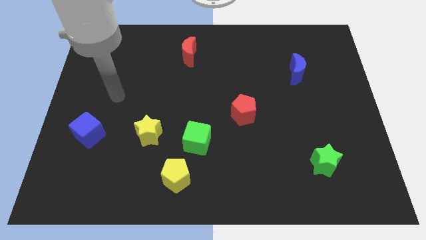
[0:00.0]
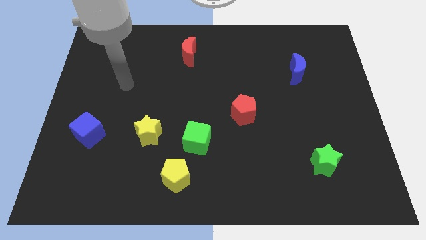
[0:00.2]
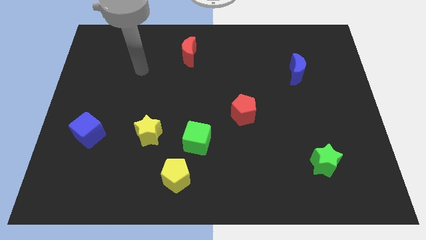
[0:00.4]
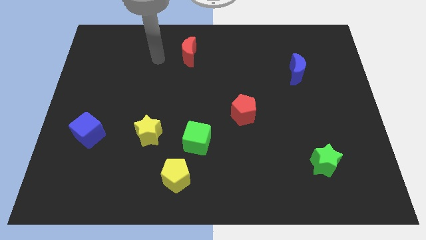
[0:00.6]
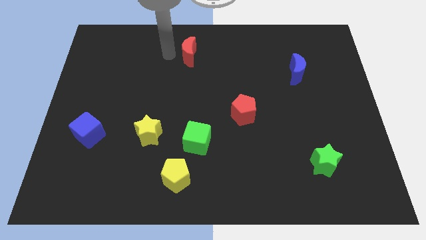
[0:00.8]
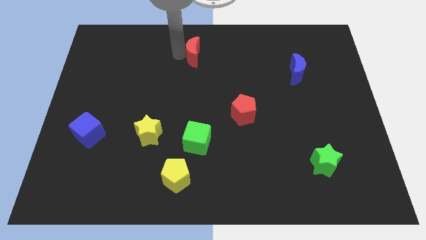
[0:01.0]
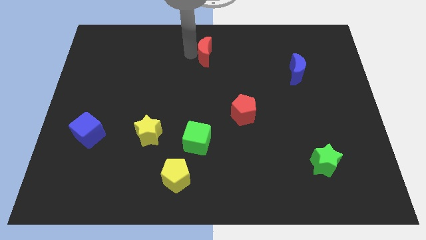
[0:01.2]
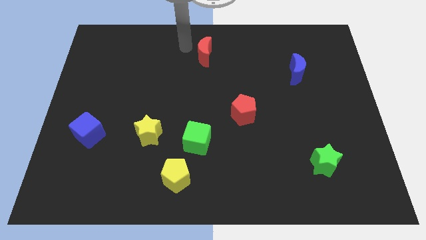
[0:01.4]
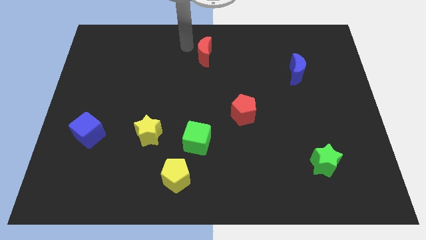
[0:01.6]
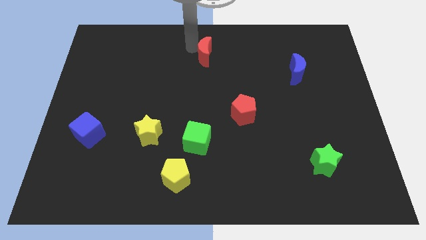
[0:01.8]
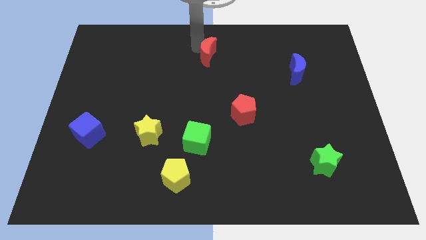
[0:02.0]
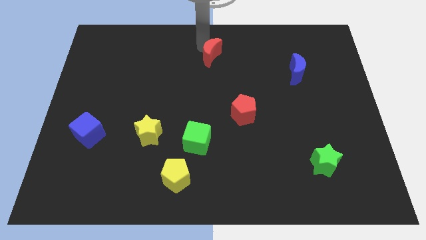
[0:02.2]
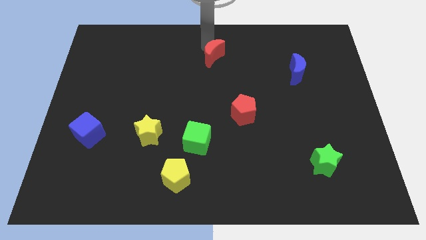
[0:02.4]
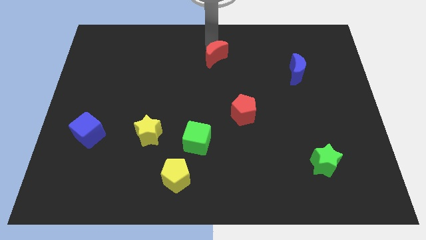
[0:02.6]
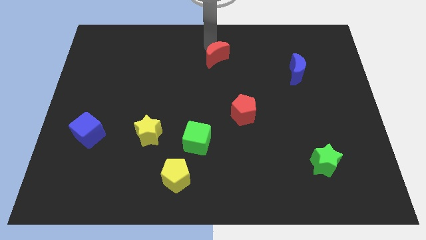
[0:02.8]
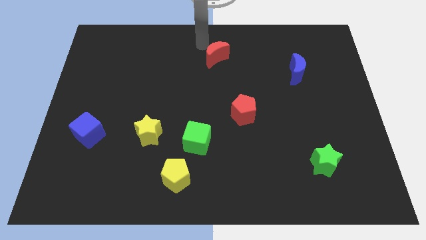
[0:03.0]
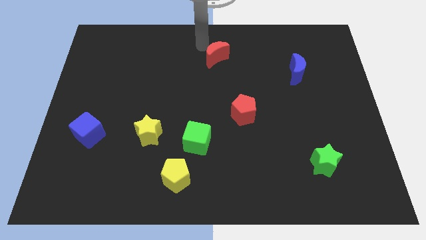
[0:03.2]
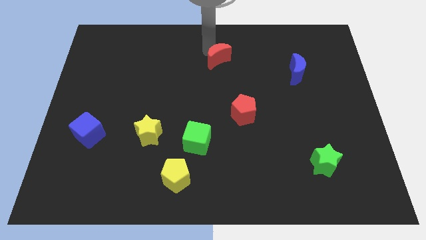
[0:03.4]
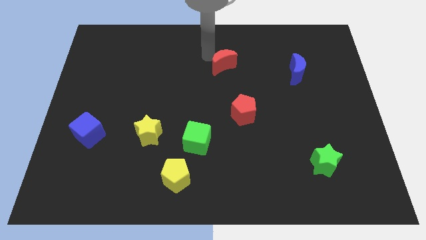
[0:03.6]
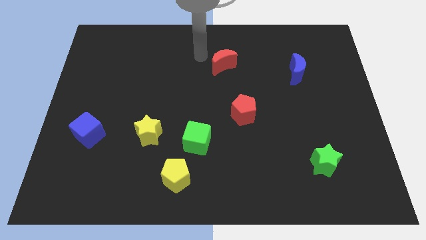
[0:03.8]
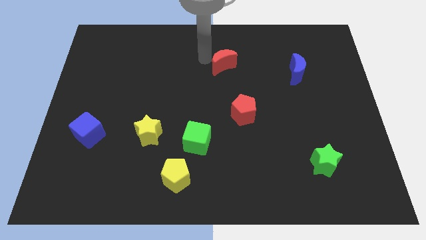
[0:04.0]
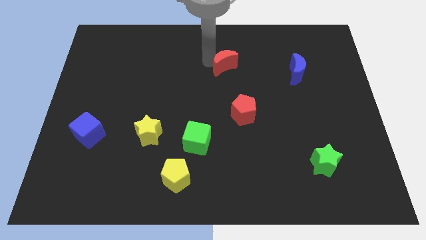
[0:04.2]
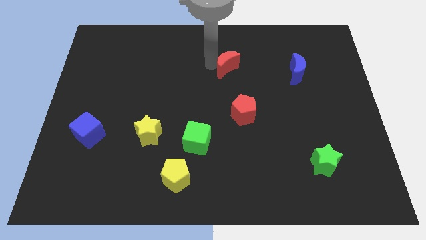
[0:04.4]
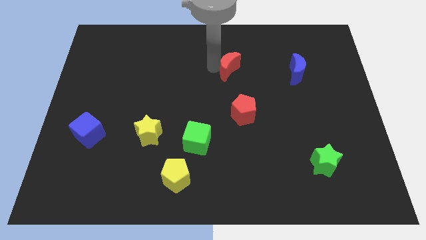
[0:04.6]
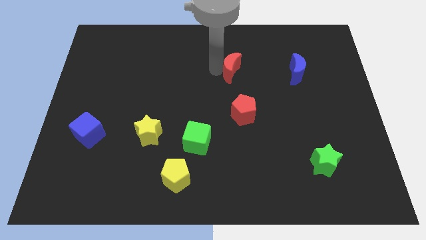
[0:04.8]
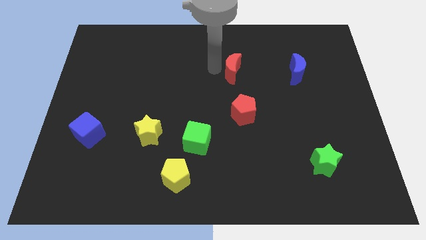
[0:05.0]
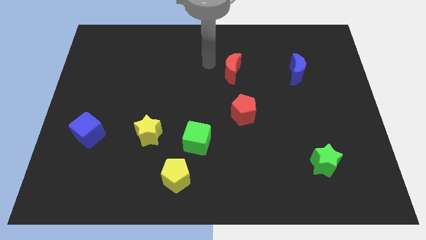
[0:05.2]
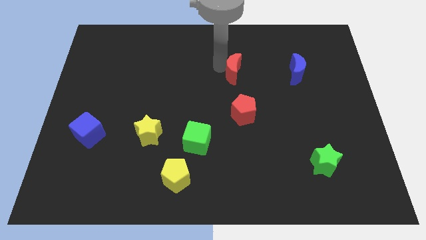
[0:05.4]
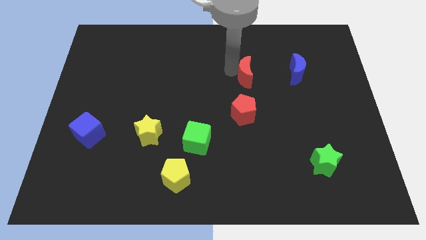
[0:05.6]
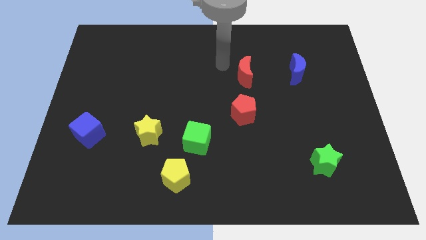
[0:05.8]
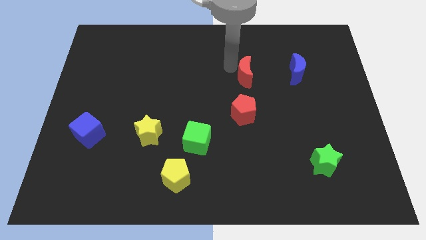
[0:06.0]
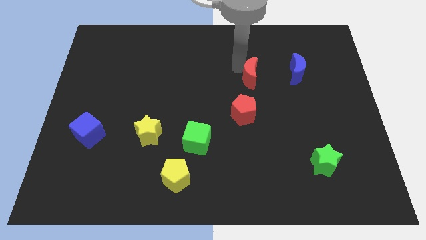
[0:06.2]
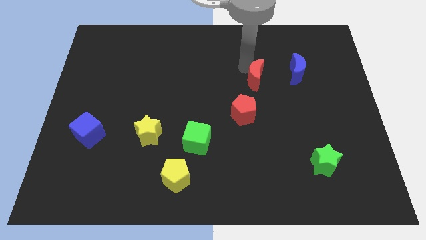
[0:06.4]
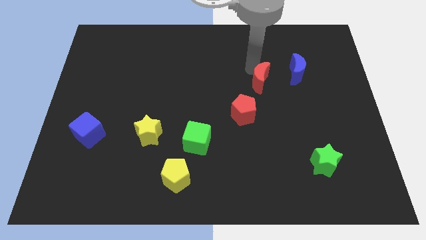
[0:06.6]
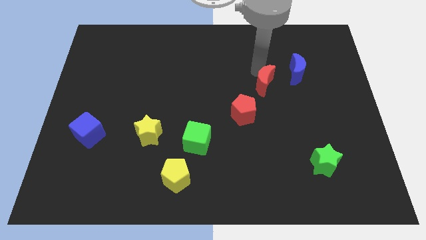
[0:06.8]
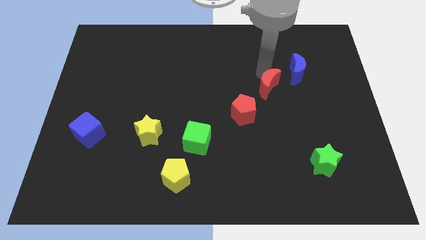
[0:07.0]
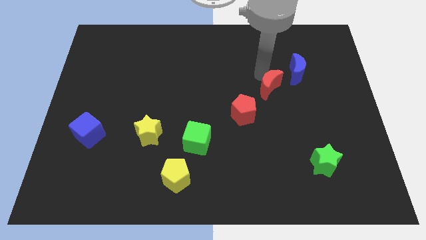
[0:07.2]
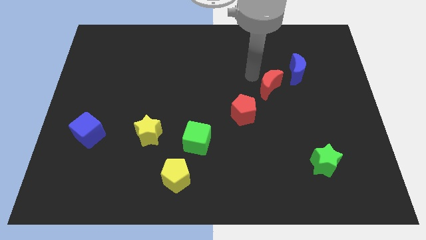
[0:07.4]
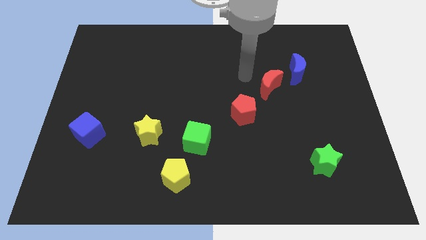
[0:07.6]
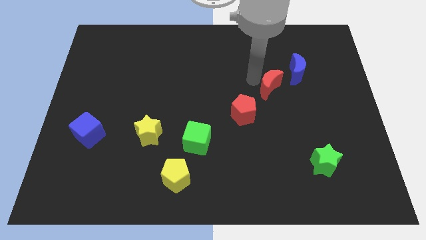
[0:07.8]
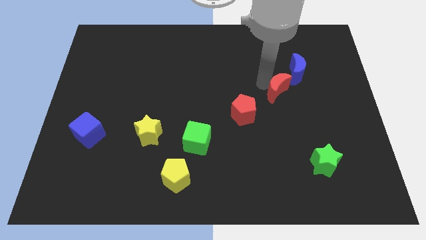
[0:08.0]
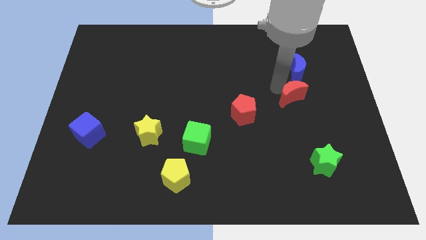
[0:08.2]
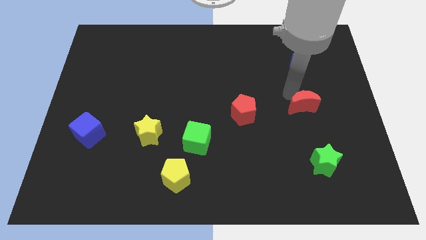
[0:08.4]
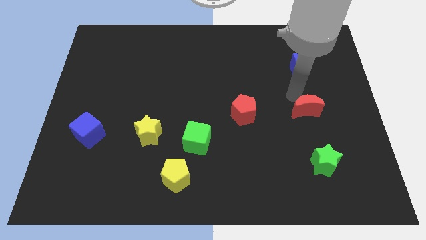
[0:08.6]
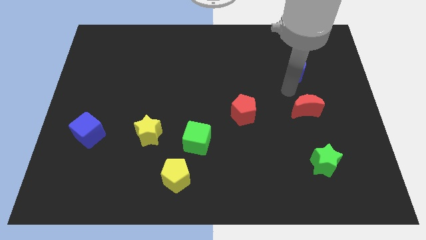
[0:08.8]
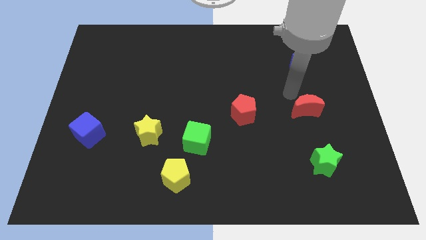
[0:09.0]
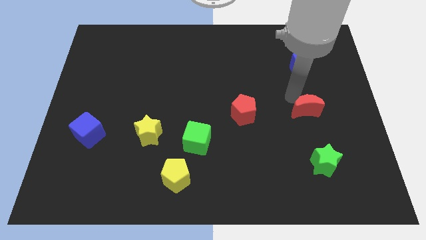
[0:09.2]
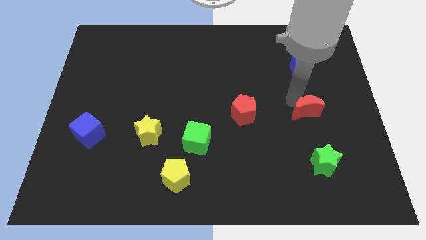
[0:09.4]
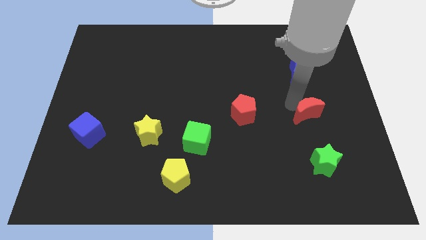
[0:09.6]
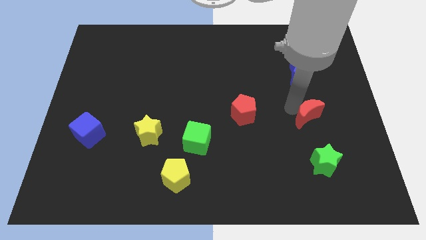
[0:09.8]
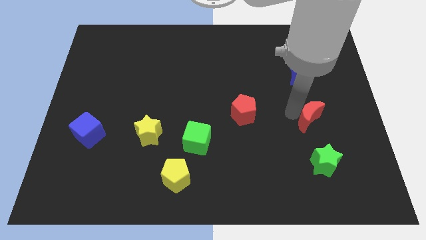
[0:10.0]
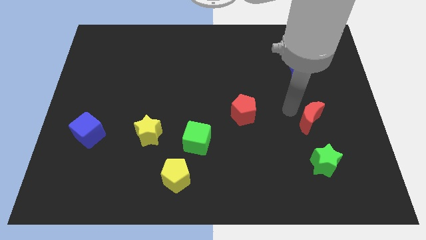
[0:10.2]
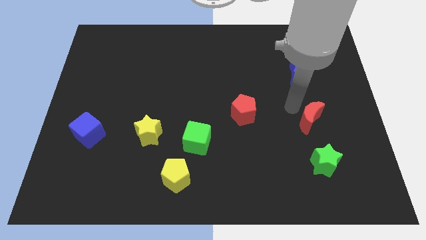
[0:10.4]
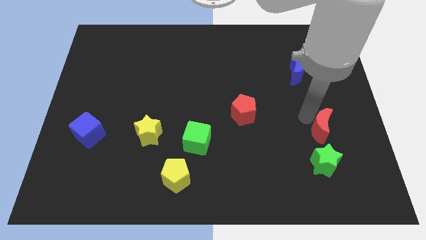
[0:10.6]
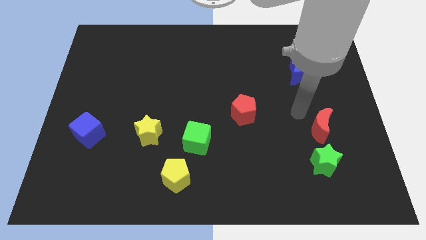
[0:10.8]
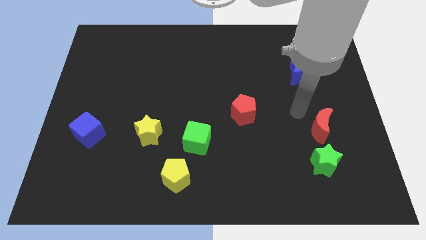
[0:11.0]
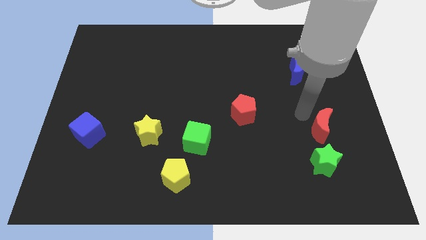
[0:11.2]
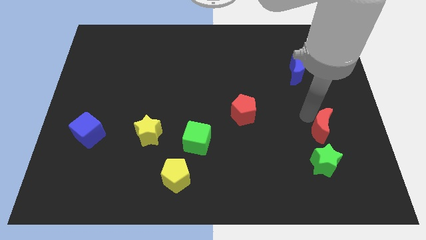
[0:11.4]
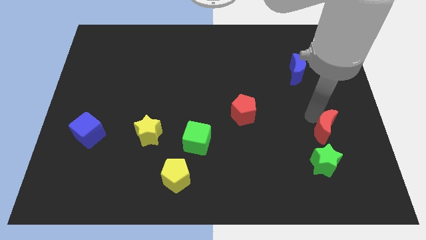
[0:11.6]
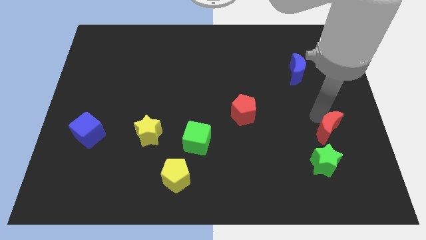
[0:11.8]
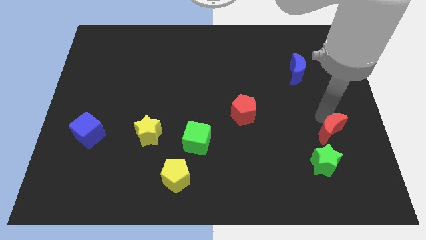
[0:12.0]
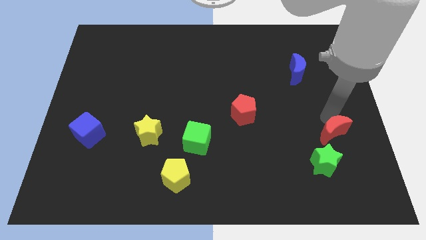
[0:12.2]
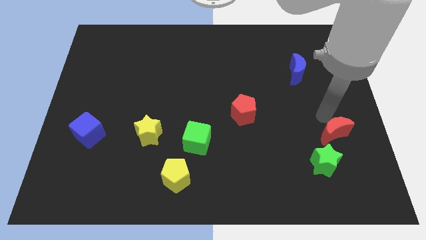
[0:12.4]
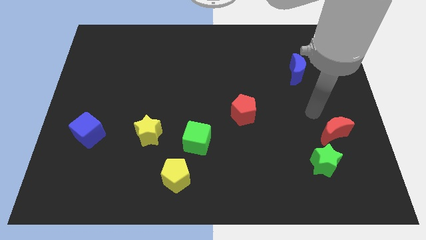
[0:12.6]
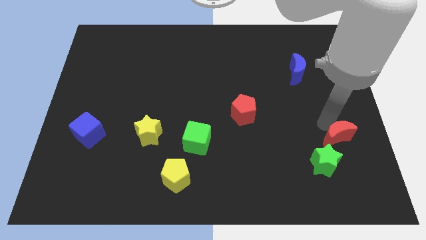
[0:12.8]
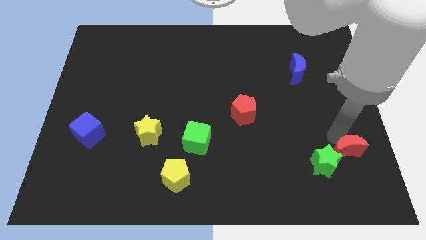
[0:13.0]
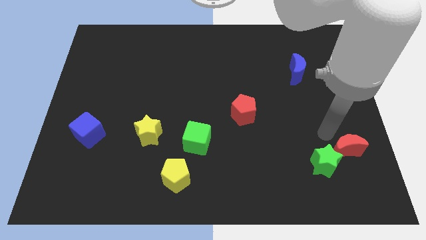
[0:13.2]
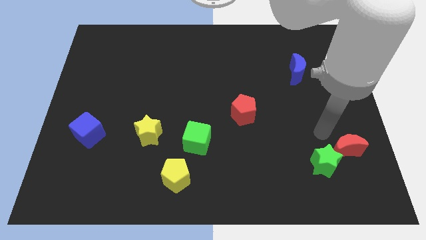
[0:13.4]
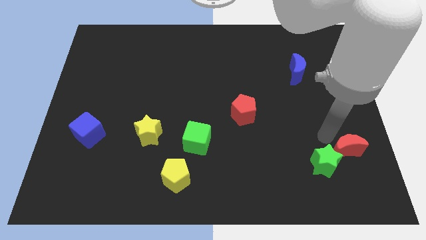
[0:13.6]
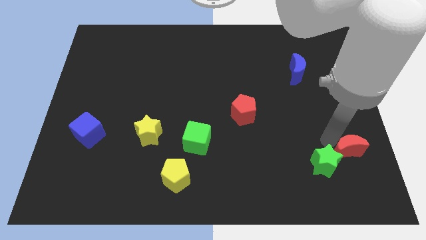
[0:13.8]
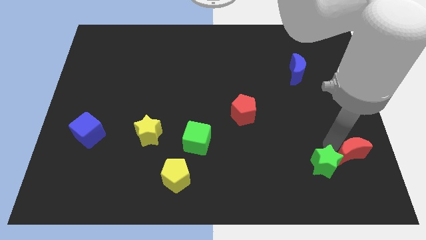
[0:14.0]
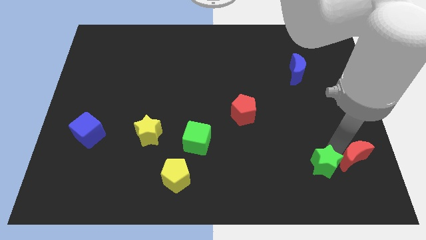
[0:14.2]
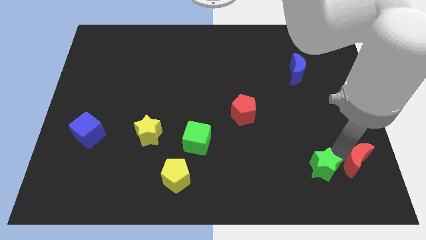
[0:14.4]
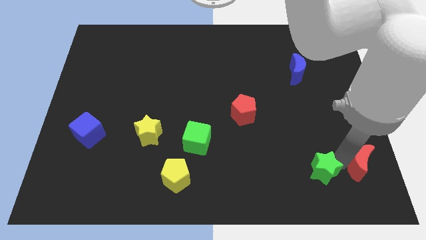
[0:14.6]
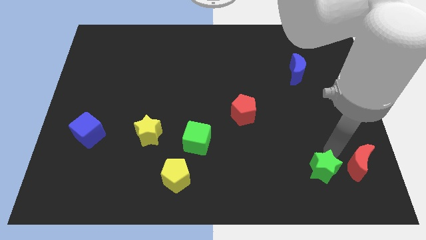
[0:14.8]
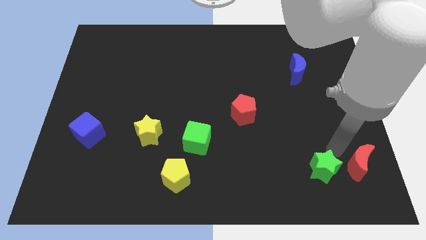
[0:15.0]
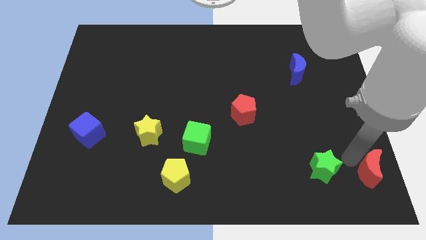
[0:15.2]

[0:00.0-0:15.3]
move the red moon to the bottom right corner
